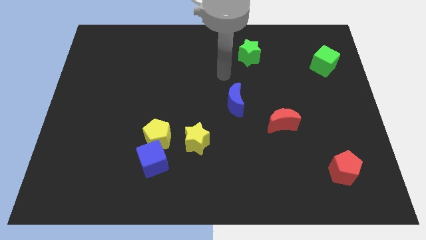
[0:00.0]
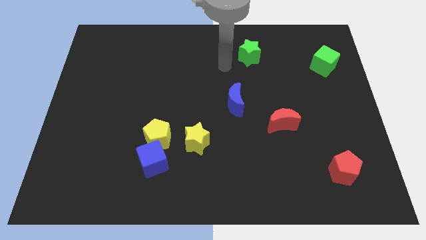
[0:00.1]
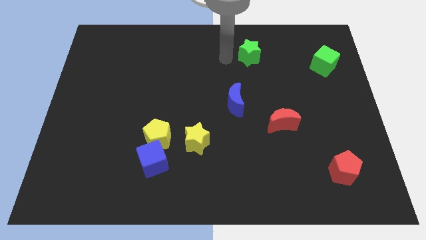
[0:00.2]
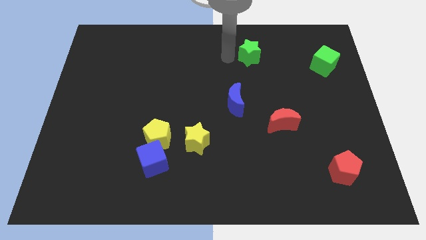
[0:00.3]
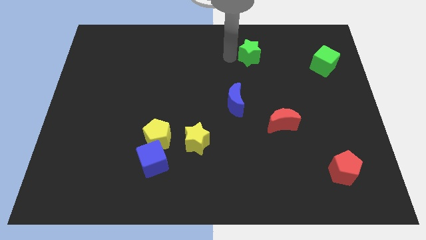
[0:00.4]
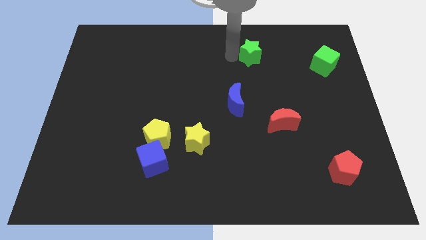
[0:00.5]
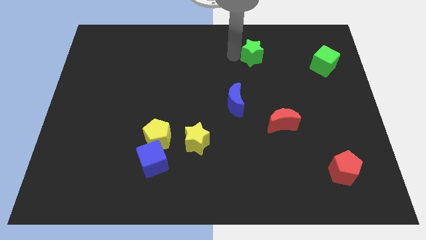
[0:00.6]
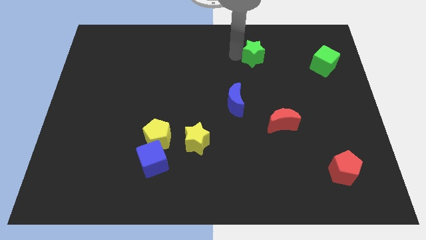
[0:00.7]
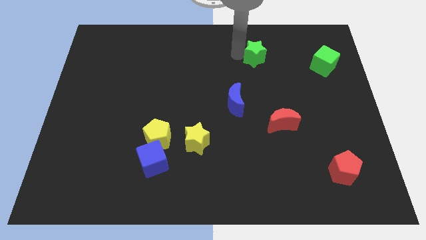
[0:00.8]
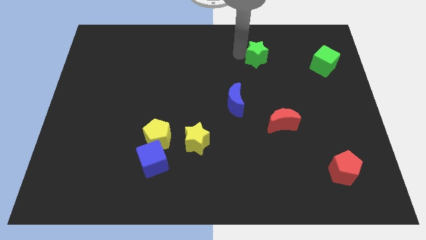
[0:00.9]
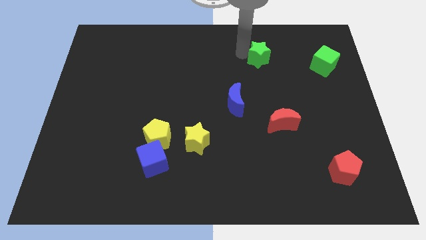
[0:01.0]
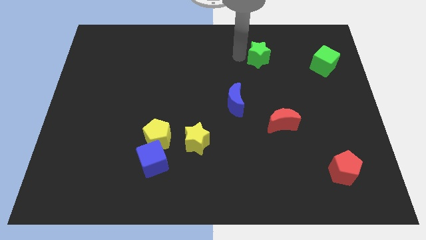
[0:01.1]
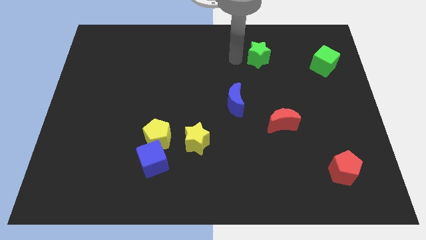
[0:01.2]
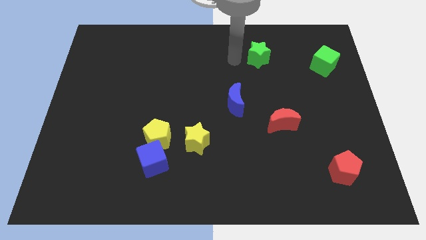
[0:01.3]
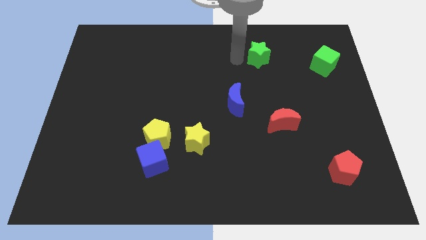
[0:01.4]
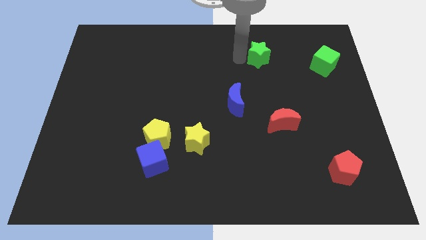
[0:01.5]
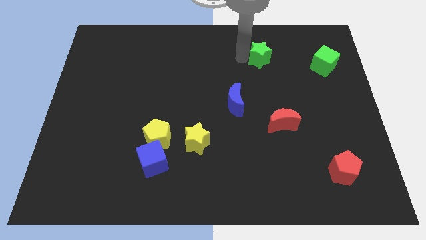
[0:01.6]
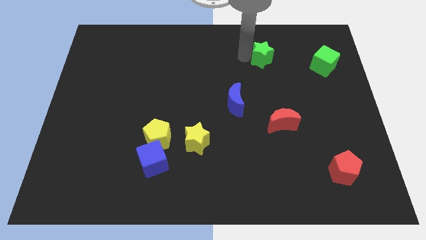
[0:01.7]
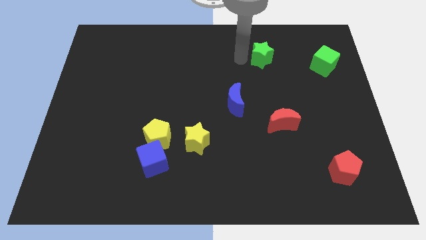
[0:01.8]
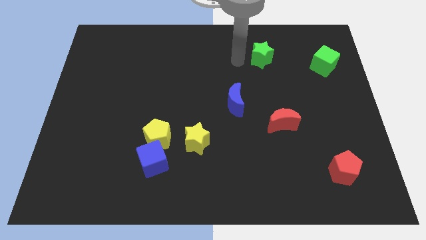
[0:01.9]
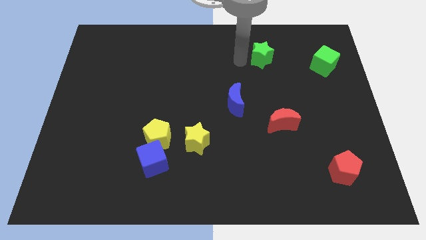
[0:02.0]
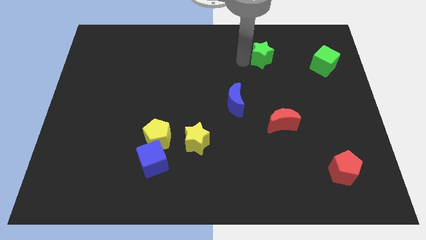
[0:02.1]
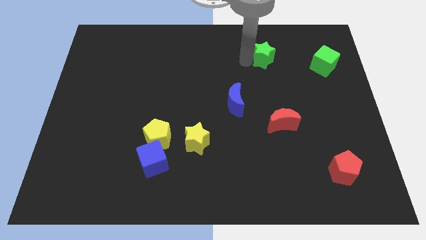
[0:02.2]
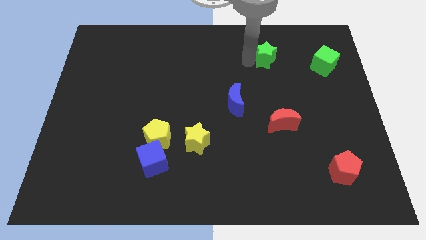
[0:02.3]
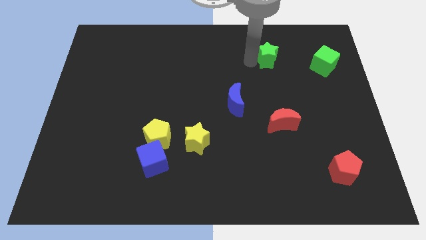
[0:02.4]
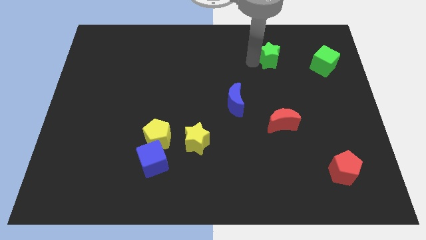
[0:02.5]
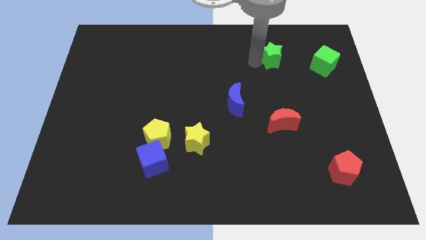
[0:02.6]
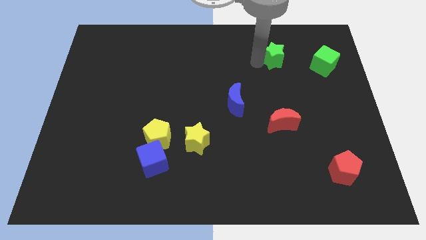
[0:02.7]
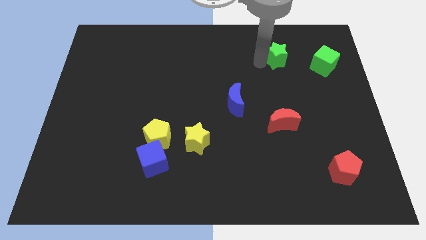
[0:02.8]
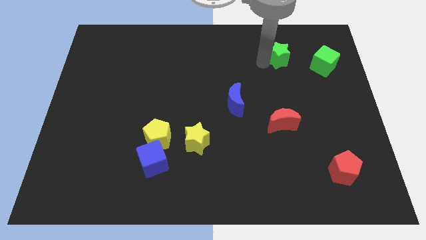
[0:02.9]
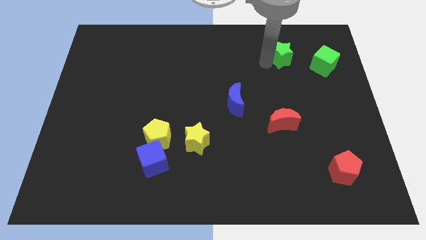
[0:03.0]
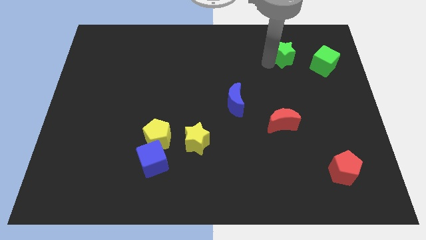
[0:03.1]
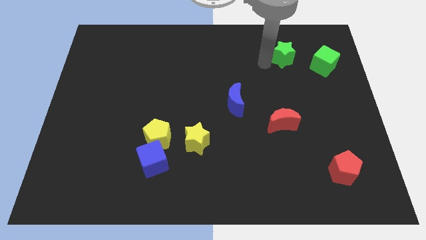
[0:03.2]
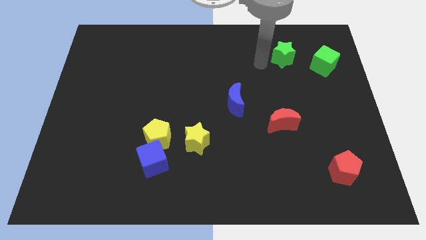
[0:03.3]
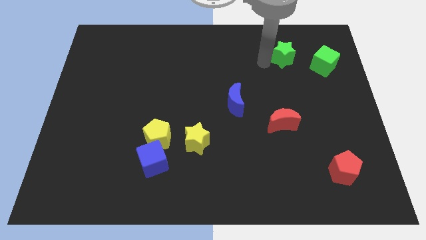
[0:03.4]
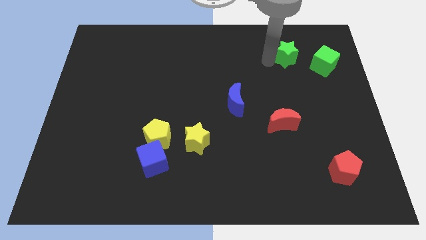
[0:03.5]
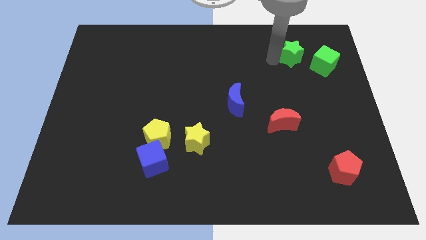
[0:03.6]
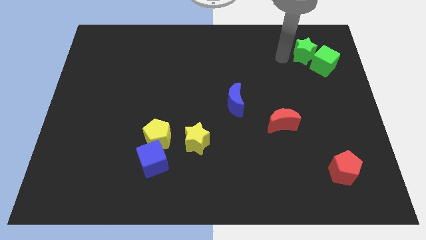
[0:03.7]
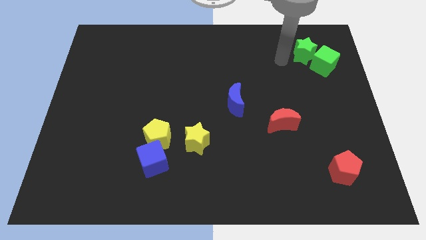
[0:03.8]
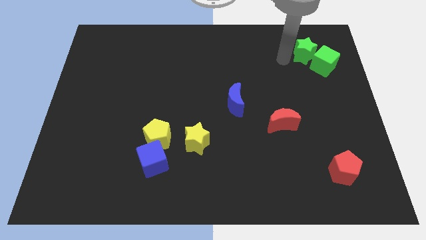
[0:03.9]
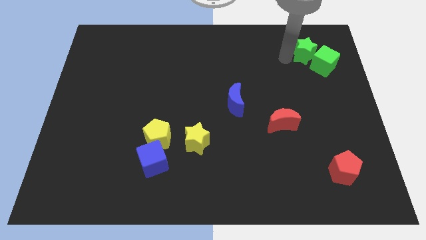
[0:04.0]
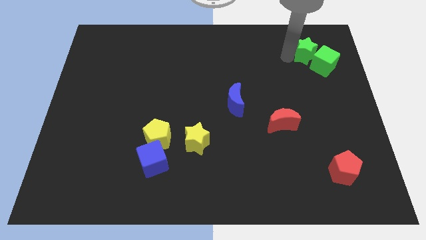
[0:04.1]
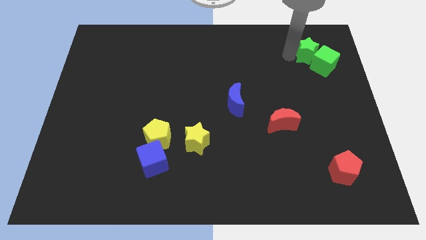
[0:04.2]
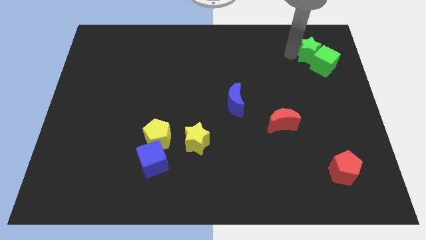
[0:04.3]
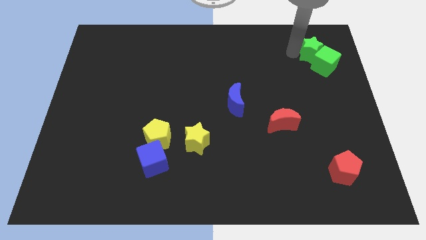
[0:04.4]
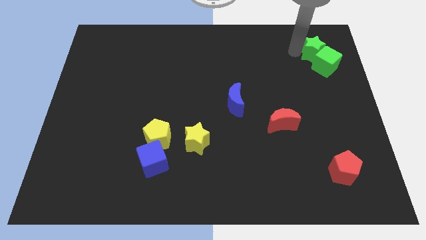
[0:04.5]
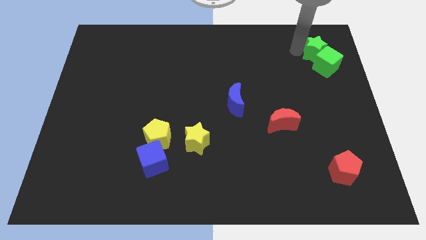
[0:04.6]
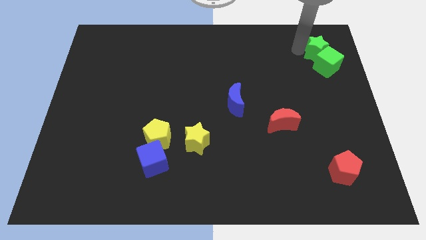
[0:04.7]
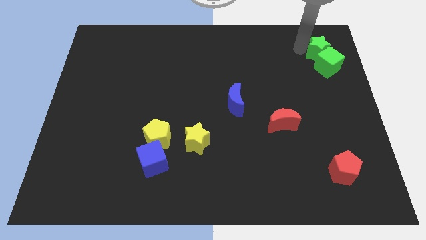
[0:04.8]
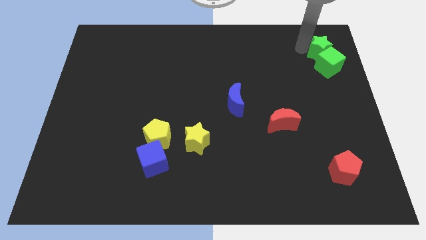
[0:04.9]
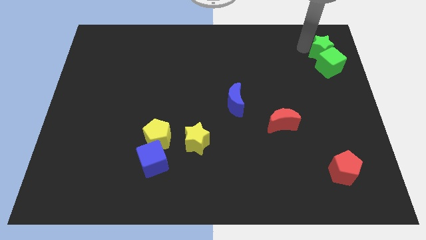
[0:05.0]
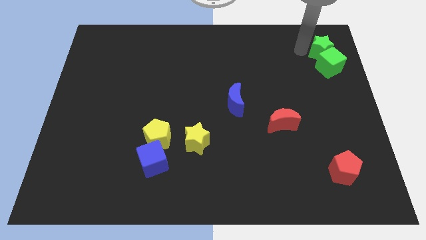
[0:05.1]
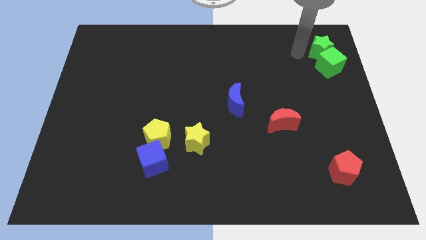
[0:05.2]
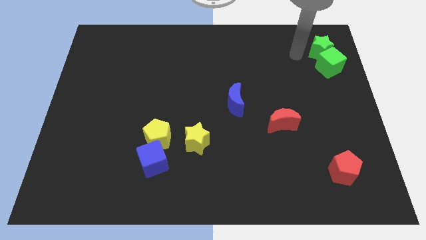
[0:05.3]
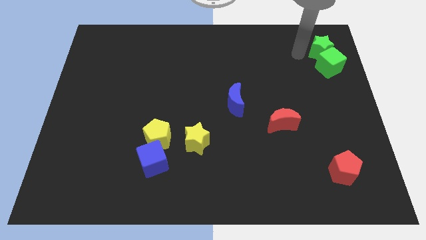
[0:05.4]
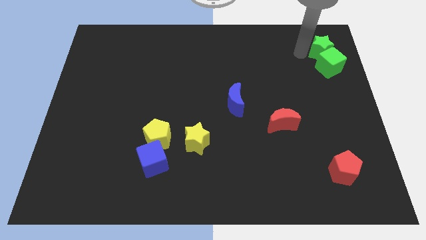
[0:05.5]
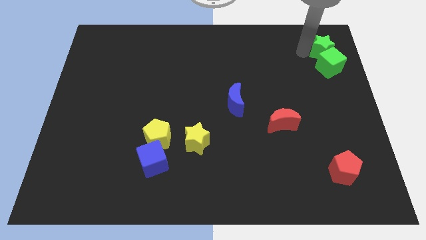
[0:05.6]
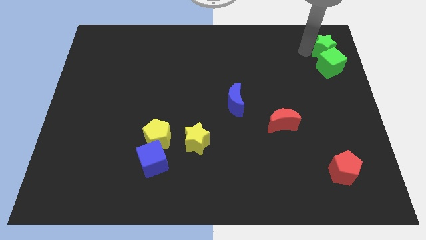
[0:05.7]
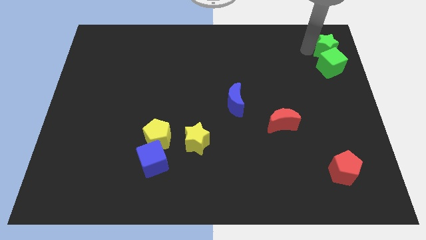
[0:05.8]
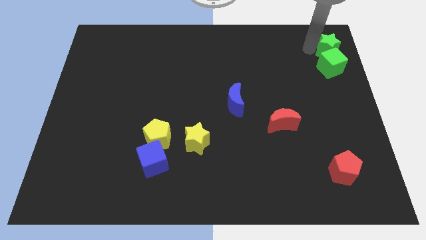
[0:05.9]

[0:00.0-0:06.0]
put the green star to the upper right corner

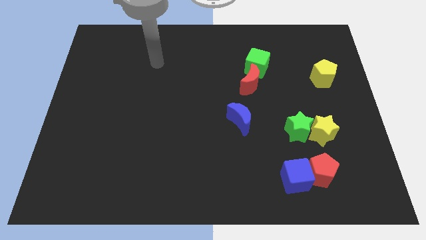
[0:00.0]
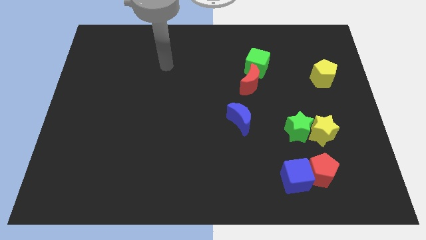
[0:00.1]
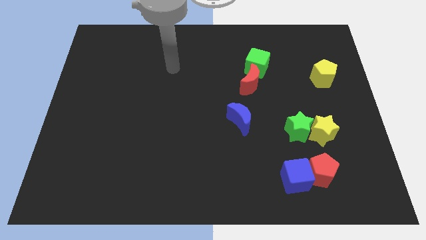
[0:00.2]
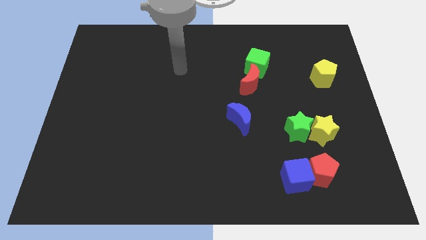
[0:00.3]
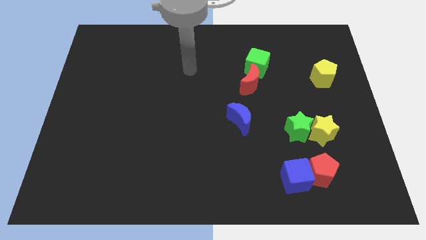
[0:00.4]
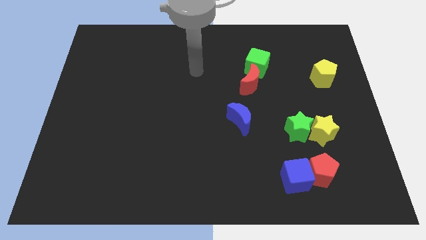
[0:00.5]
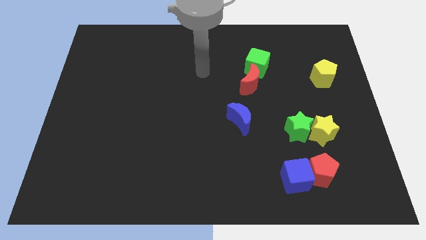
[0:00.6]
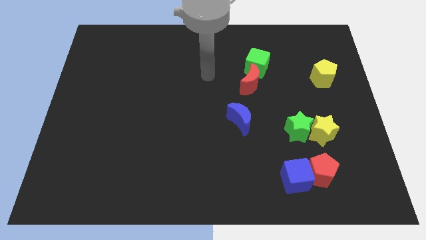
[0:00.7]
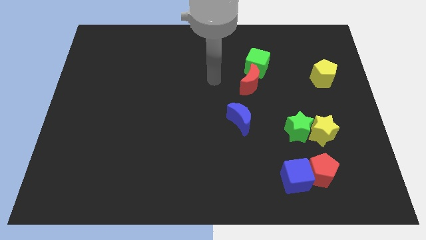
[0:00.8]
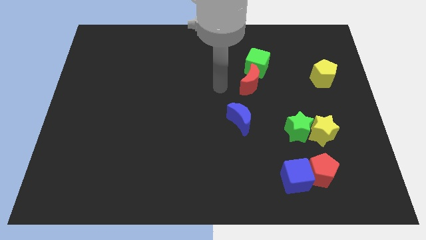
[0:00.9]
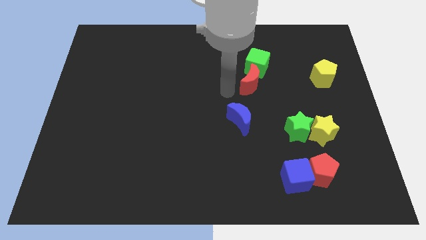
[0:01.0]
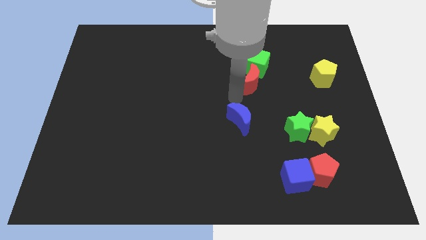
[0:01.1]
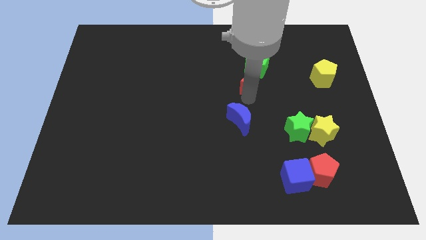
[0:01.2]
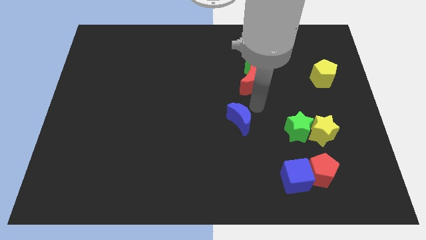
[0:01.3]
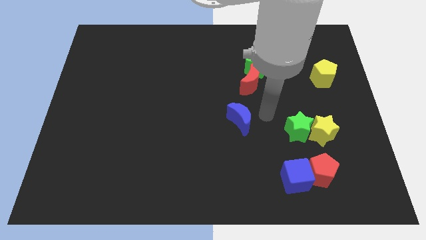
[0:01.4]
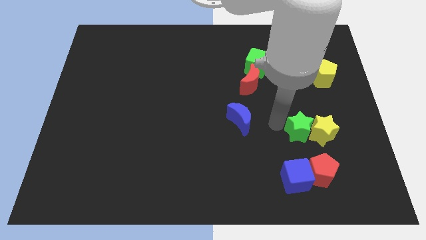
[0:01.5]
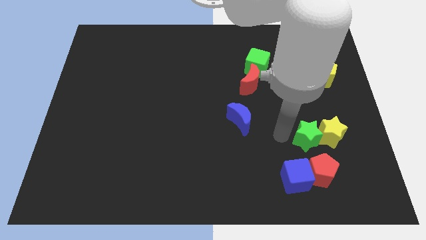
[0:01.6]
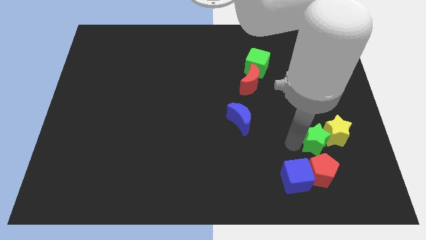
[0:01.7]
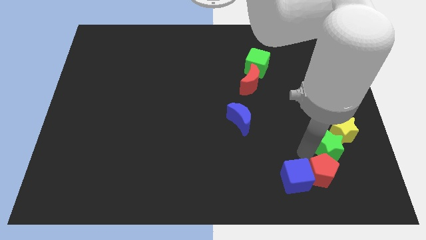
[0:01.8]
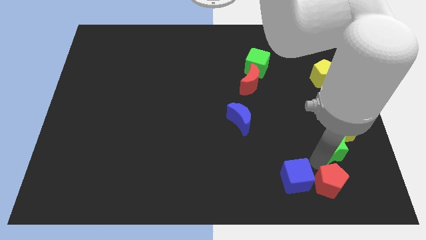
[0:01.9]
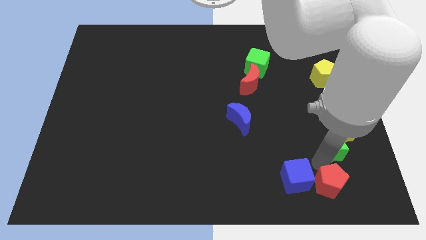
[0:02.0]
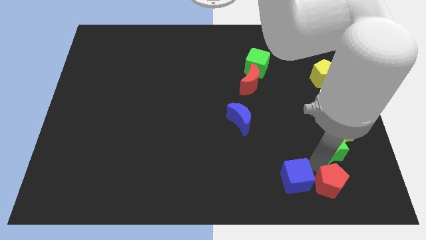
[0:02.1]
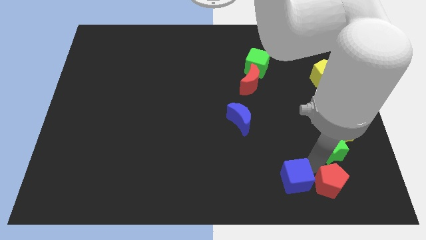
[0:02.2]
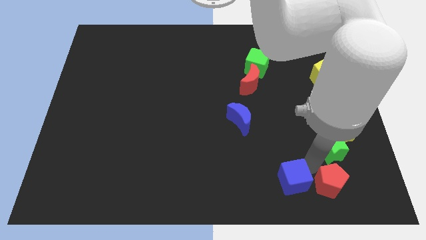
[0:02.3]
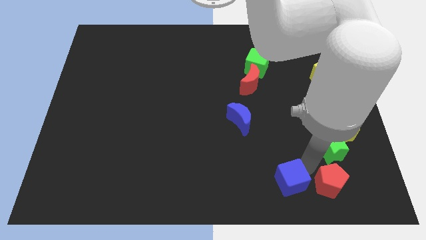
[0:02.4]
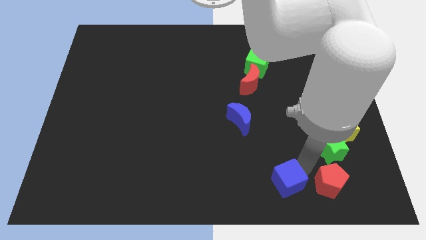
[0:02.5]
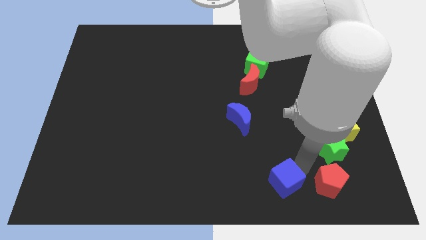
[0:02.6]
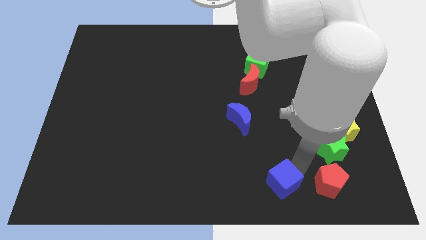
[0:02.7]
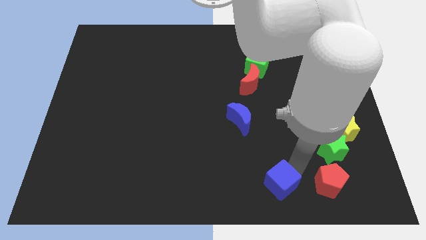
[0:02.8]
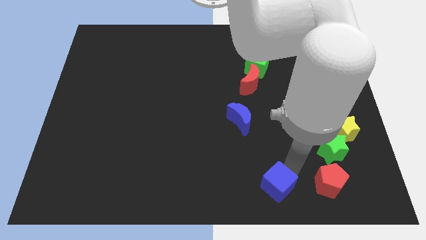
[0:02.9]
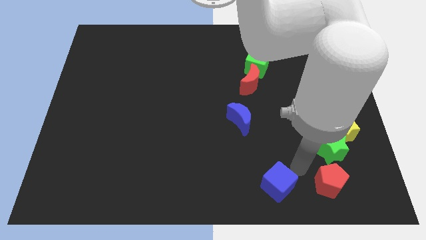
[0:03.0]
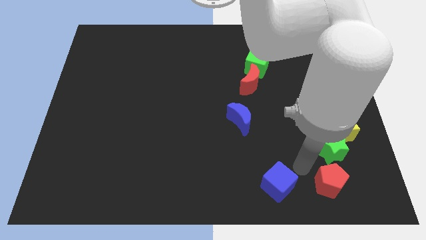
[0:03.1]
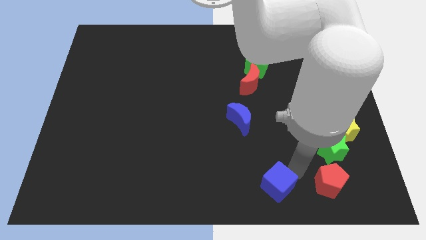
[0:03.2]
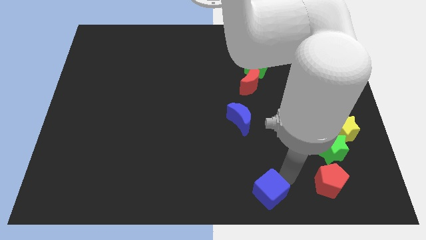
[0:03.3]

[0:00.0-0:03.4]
slide the blue cube to the bottom side
